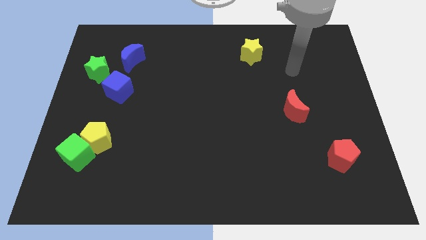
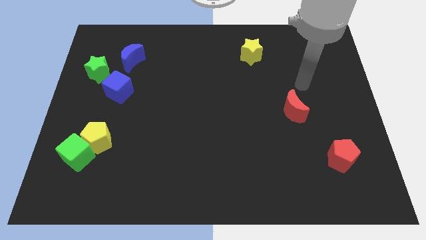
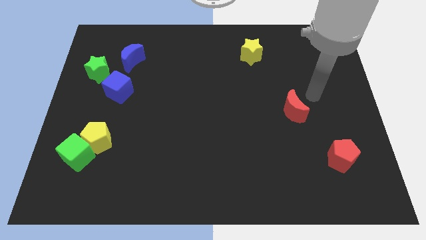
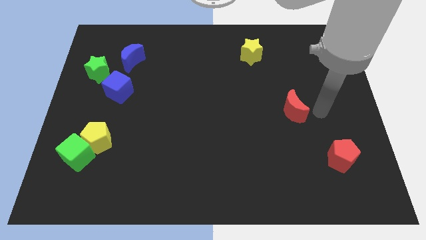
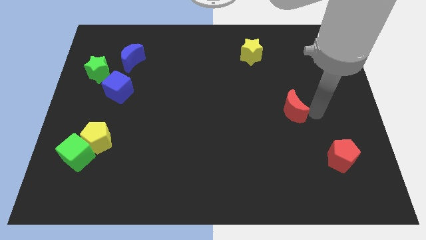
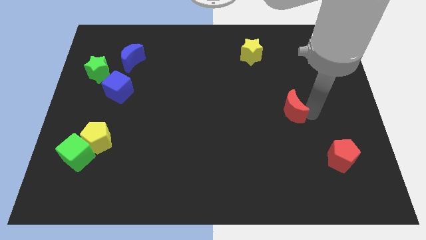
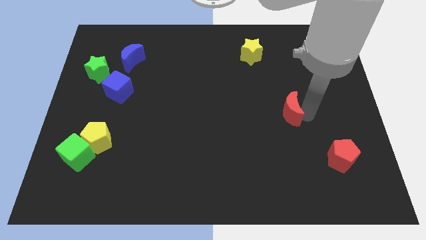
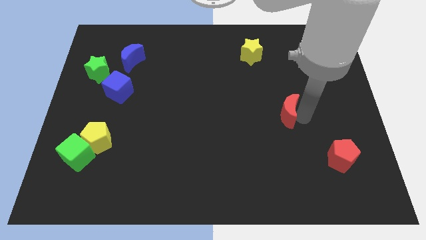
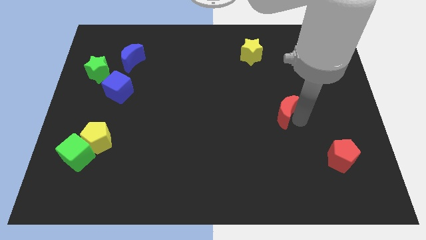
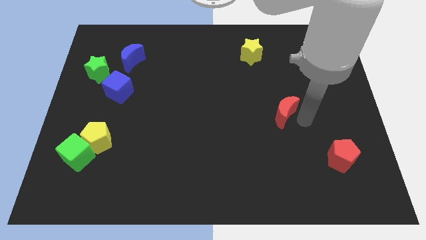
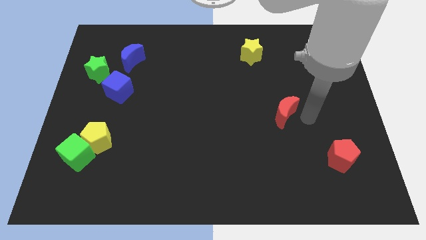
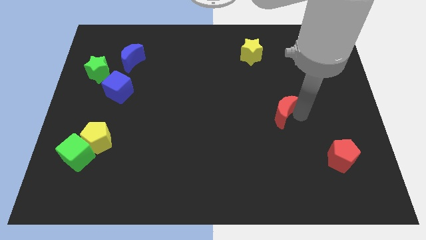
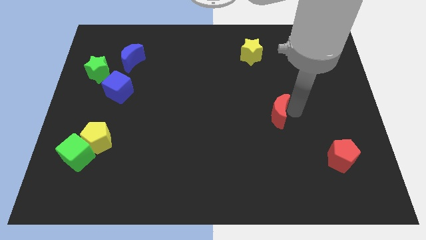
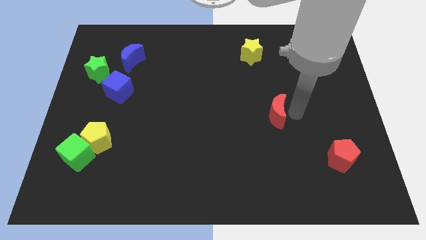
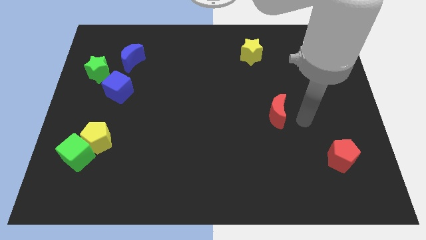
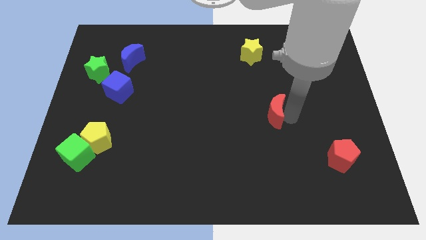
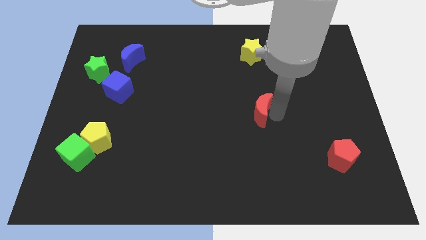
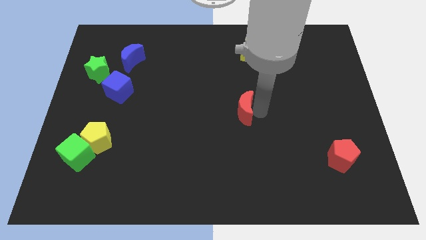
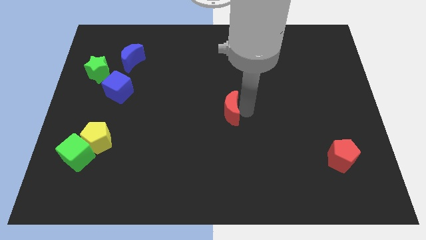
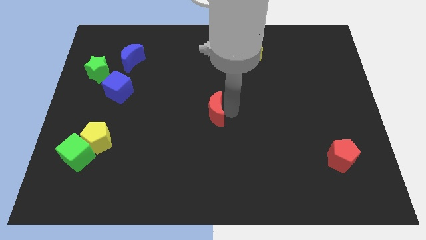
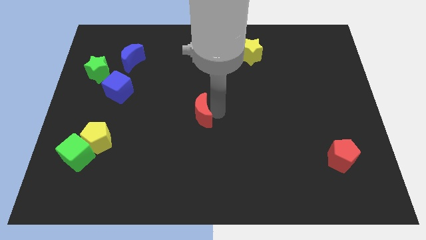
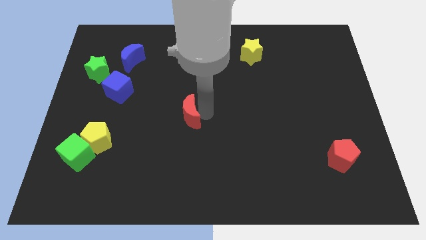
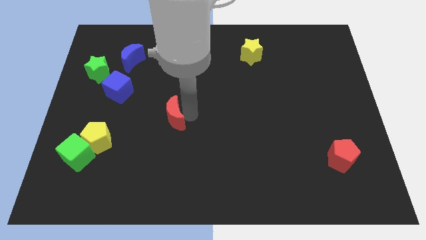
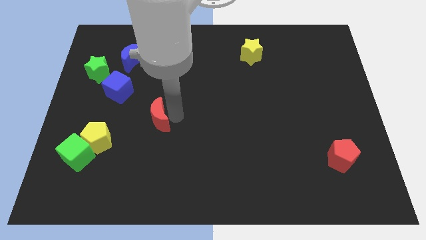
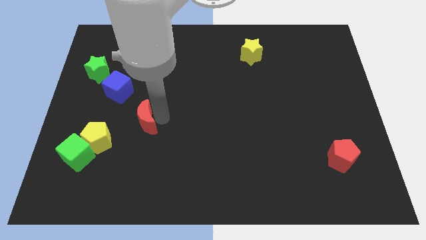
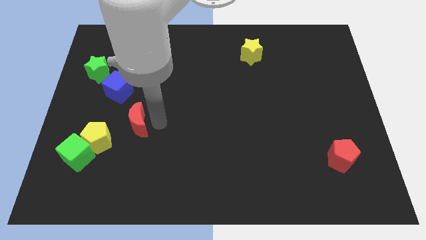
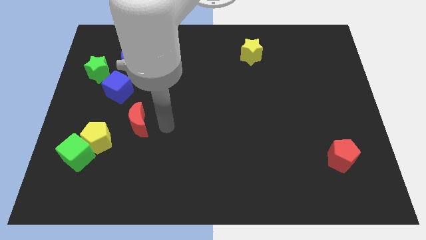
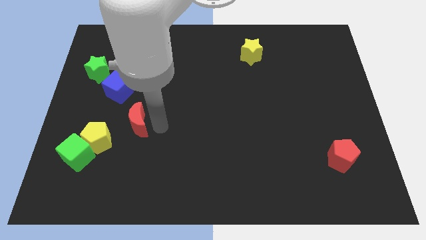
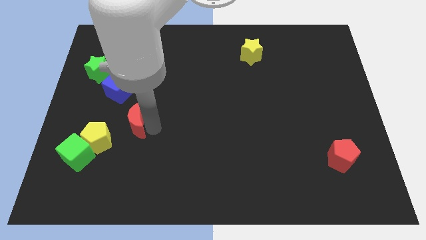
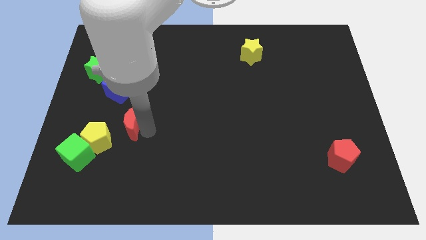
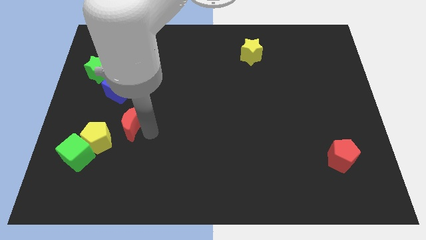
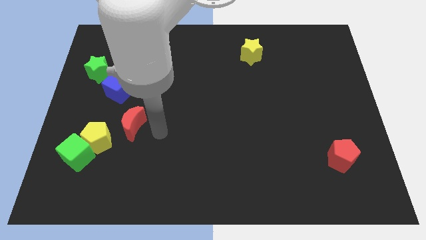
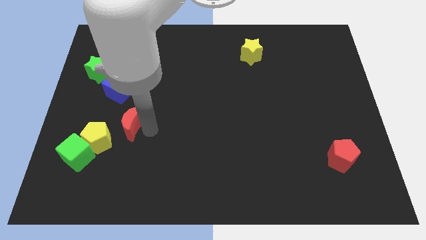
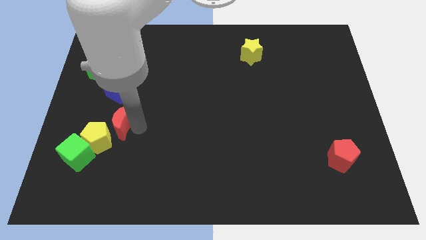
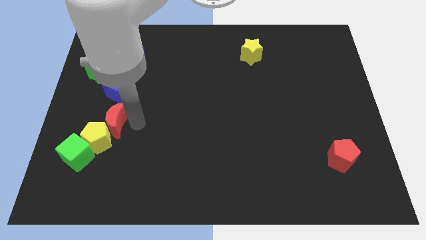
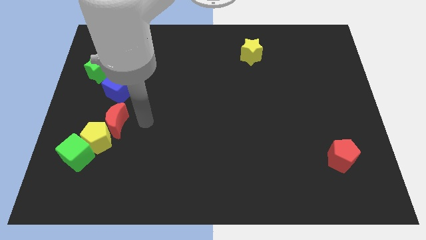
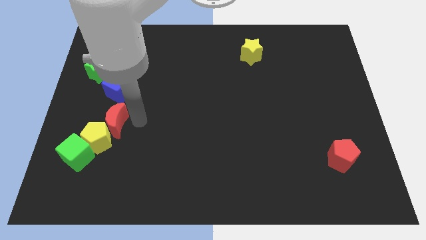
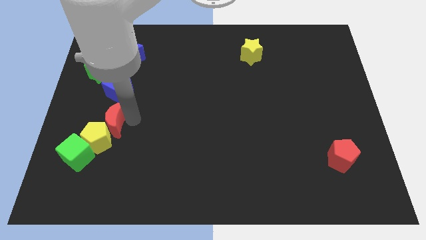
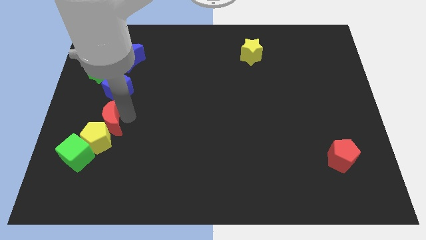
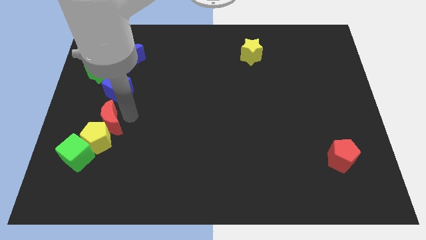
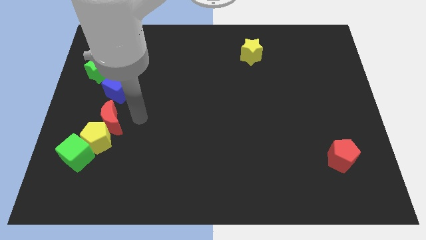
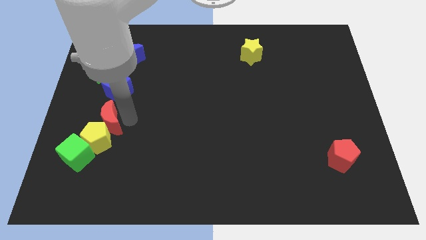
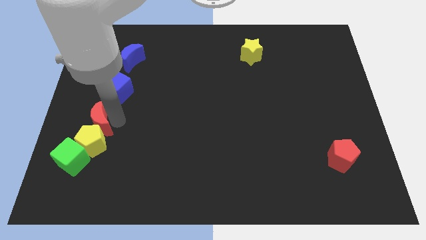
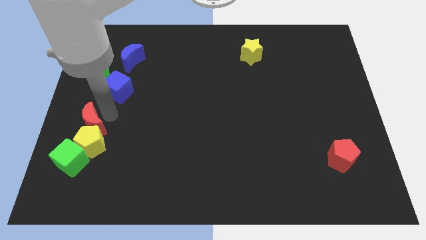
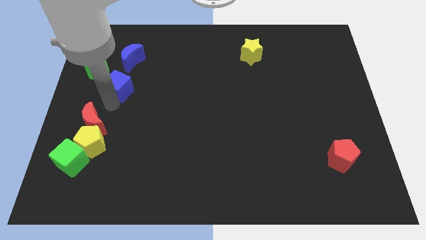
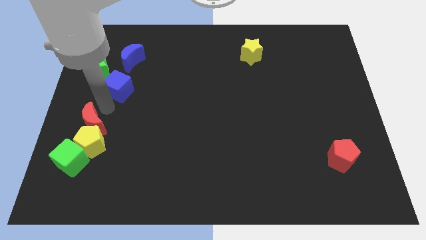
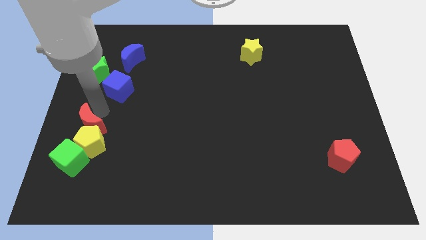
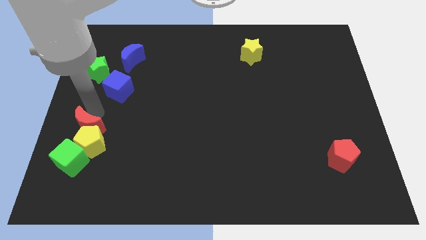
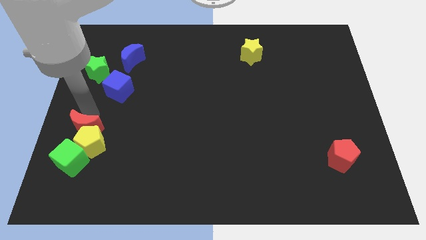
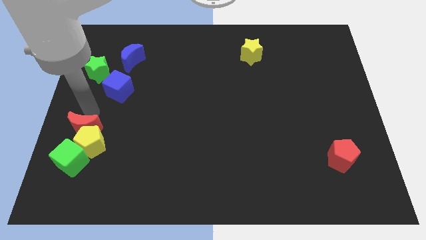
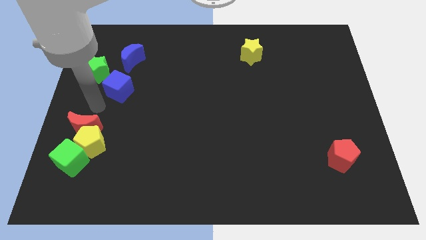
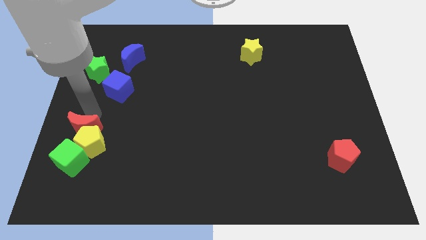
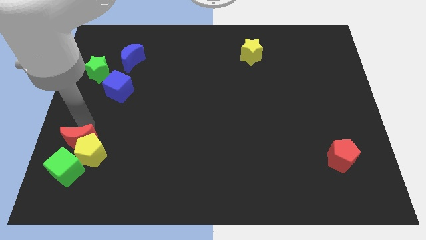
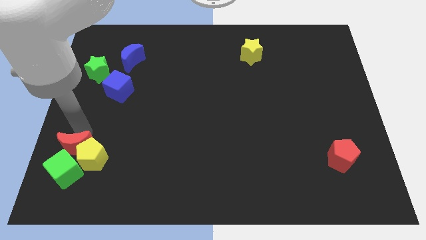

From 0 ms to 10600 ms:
move the red moon to the green cube

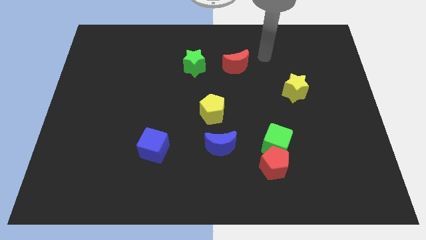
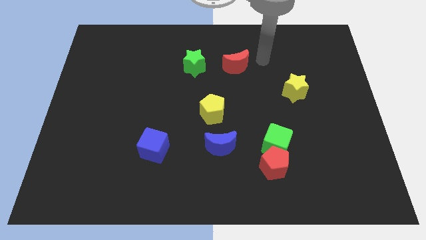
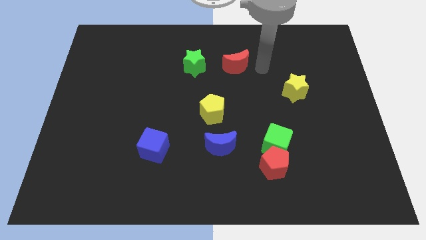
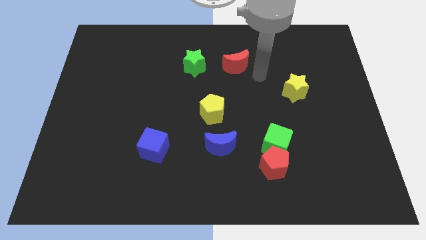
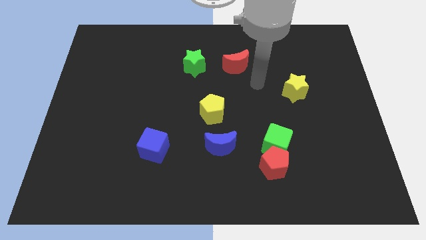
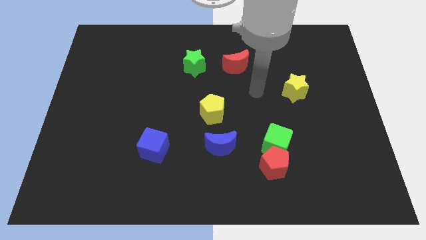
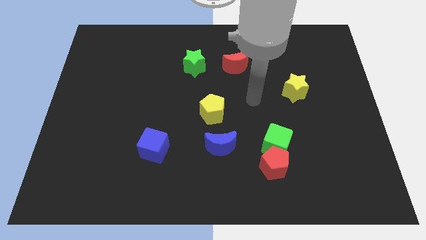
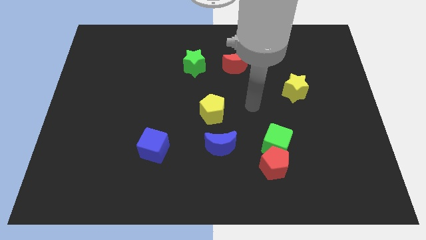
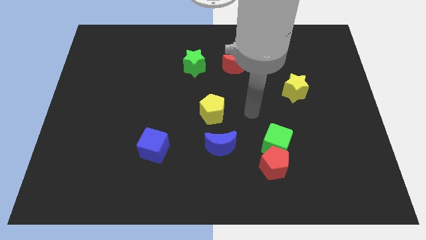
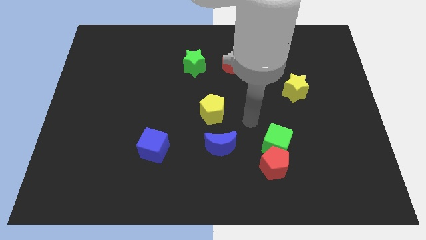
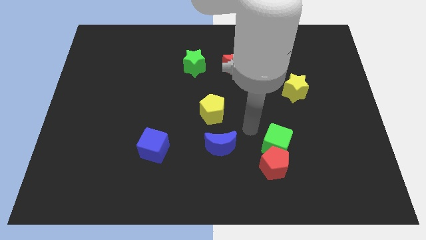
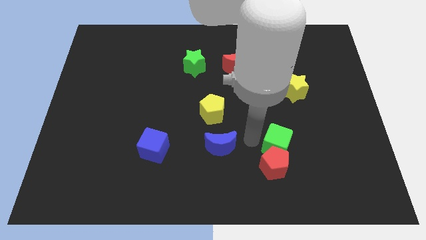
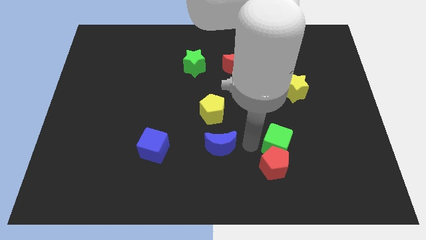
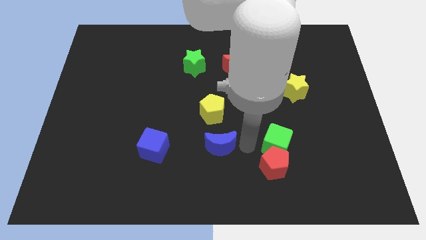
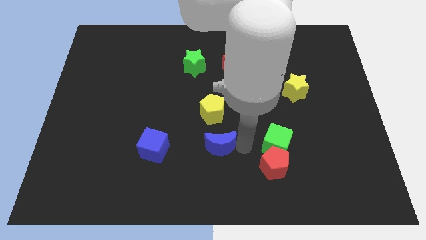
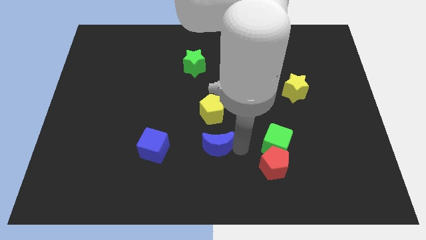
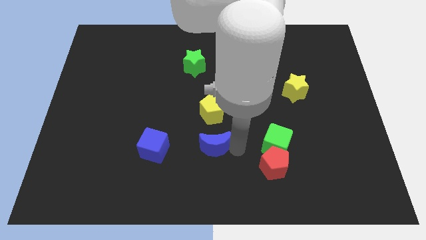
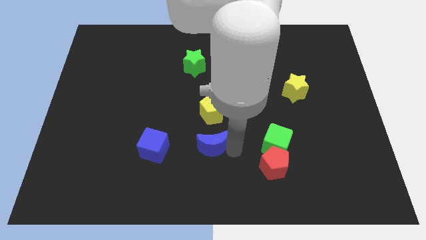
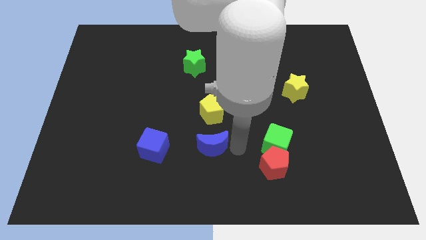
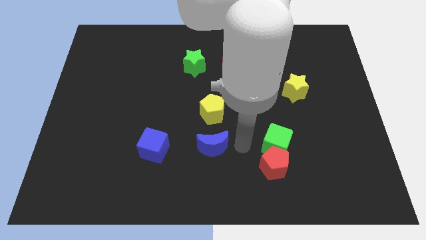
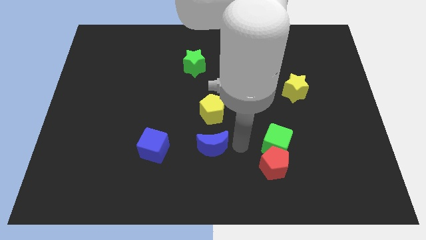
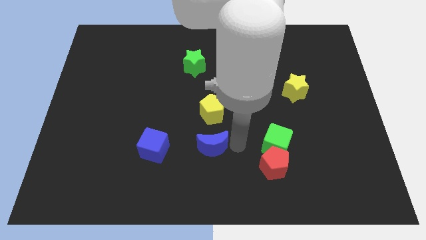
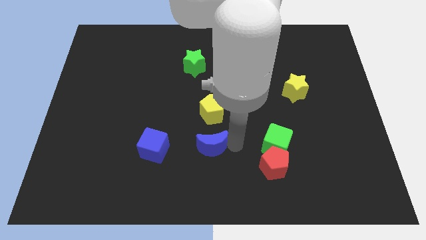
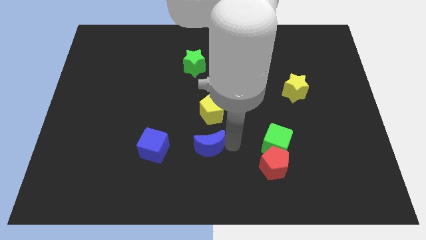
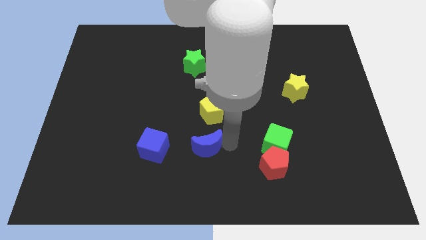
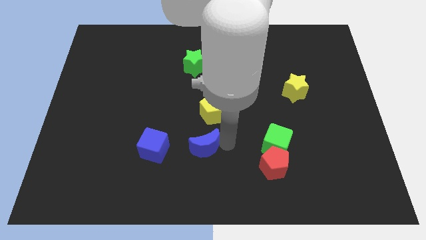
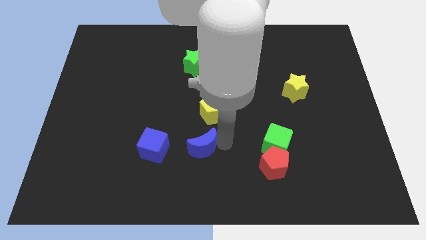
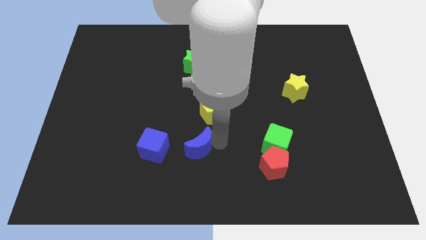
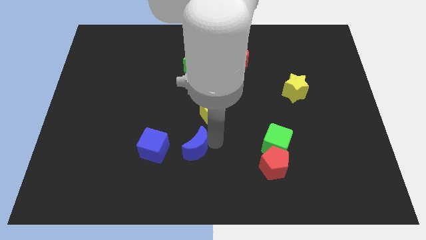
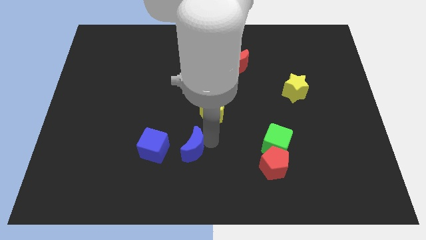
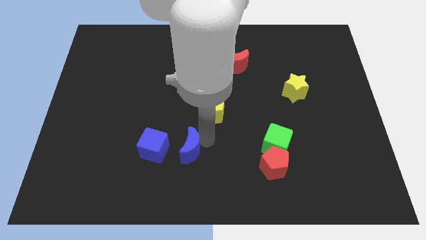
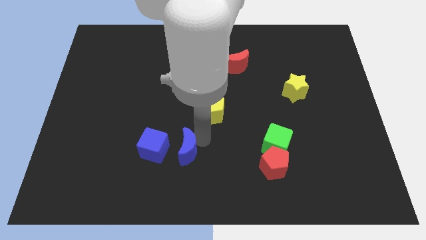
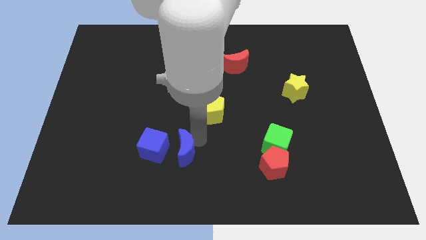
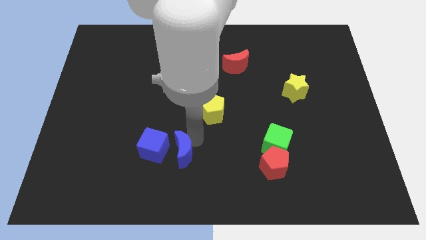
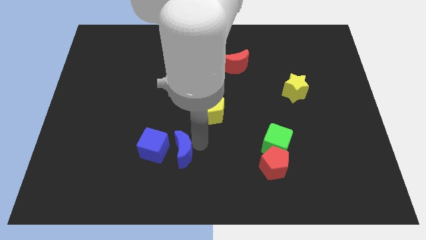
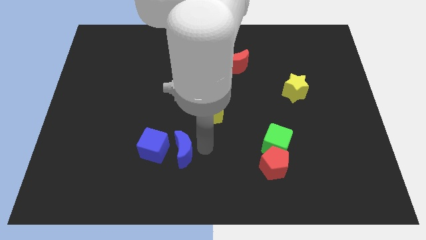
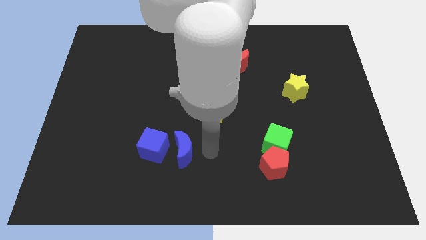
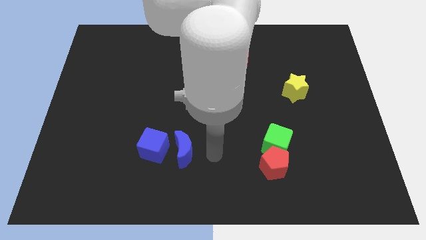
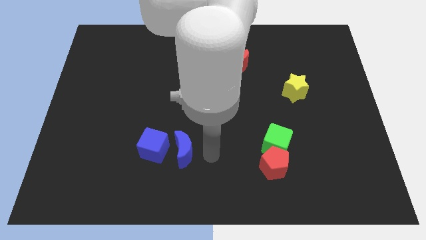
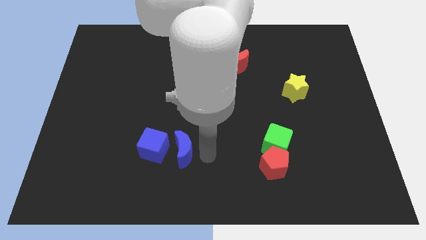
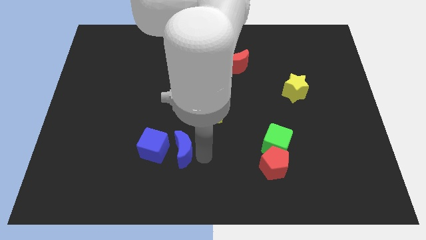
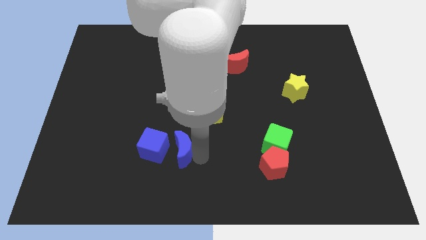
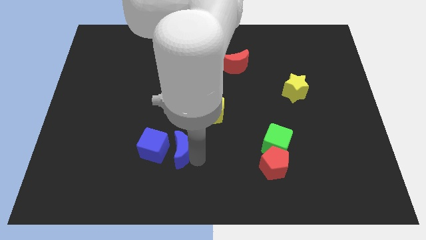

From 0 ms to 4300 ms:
move the blue moon towards the blue cube
